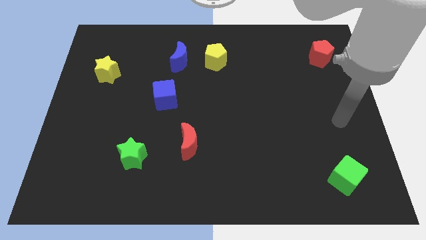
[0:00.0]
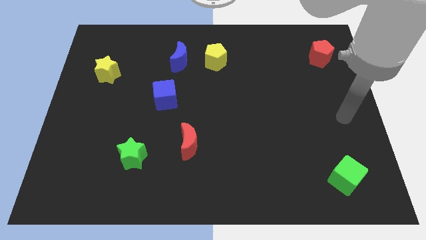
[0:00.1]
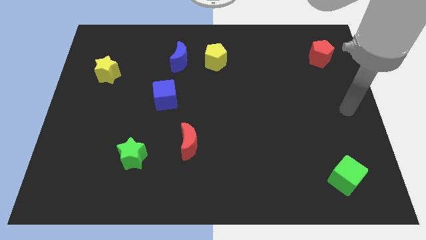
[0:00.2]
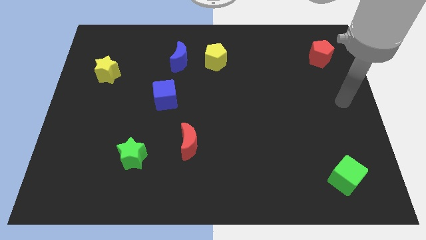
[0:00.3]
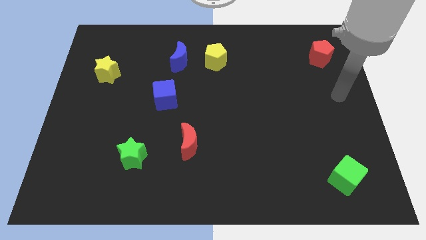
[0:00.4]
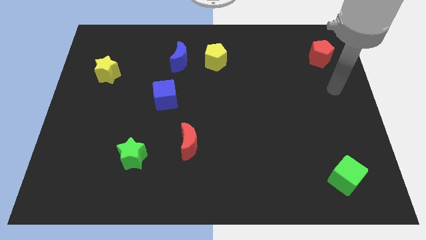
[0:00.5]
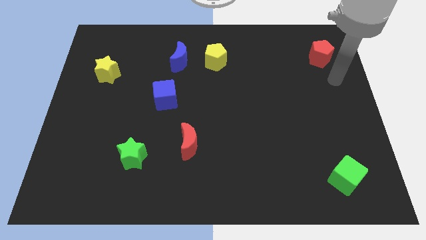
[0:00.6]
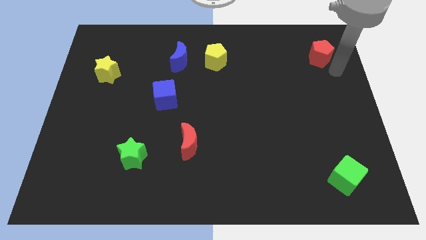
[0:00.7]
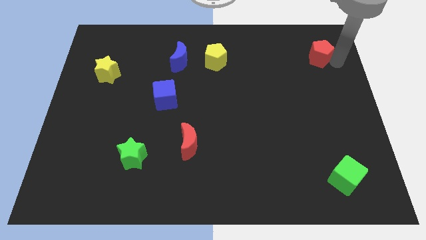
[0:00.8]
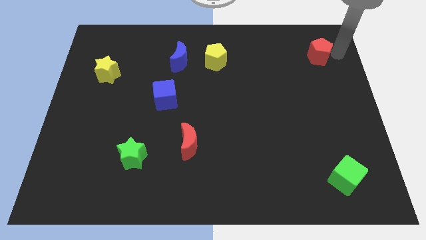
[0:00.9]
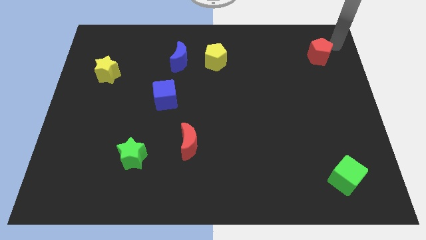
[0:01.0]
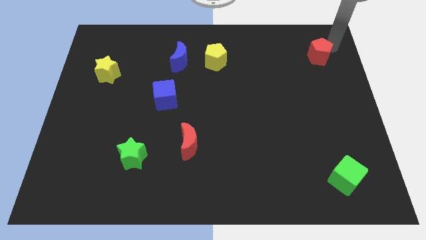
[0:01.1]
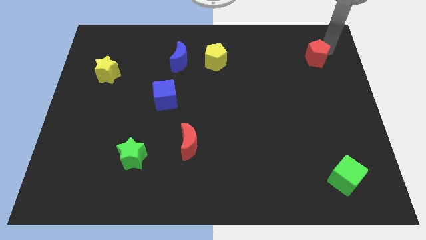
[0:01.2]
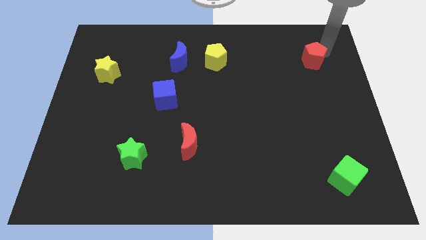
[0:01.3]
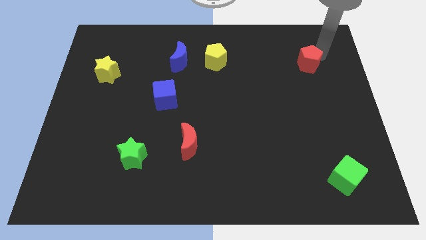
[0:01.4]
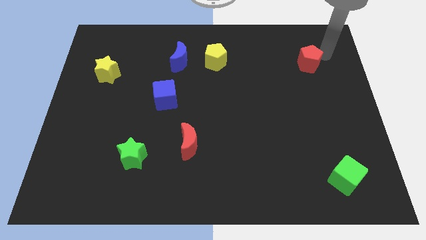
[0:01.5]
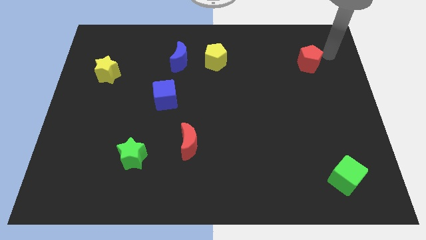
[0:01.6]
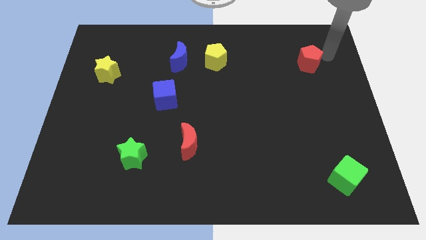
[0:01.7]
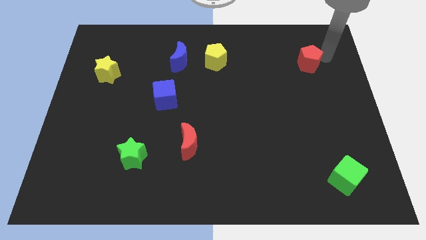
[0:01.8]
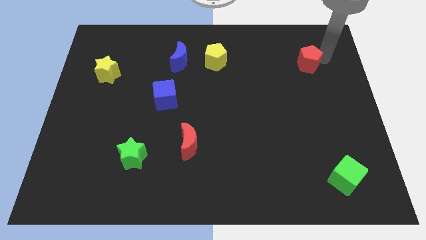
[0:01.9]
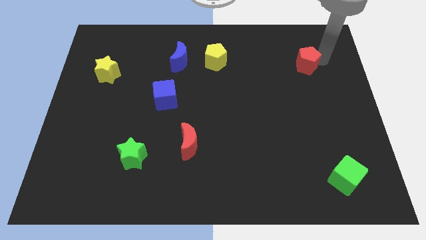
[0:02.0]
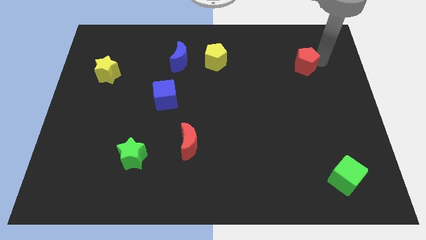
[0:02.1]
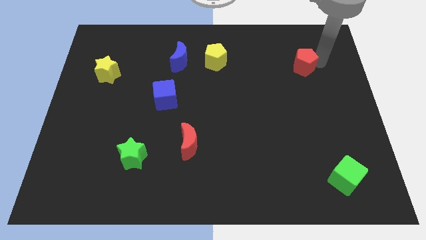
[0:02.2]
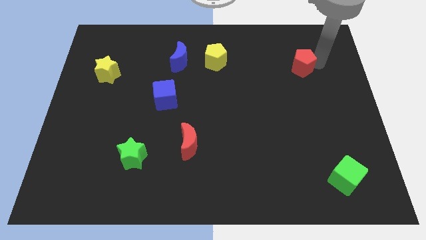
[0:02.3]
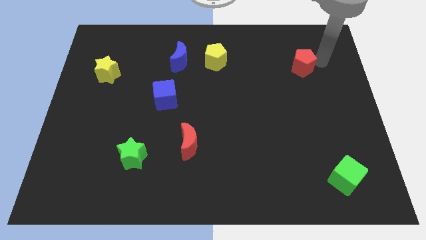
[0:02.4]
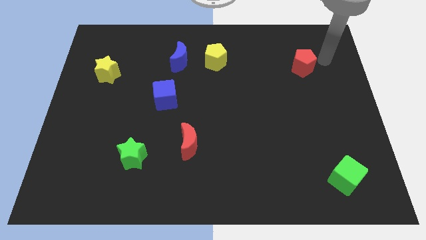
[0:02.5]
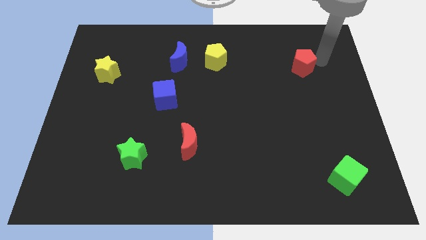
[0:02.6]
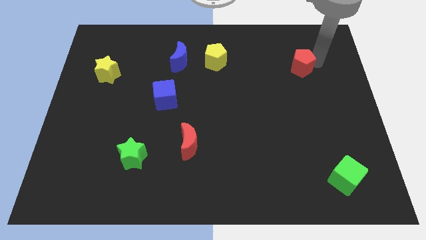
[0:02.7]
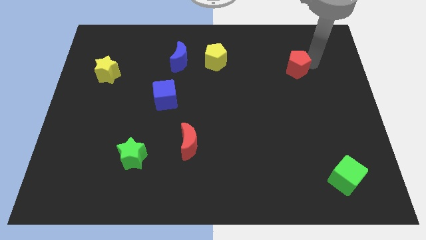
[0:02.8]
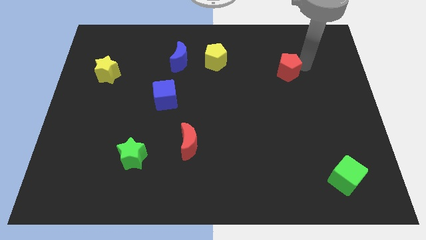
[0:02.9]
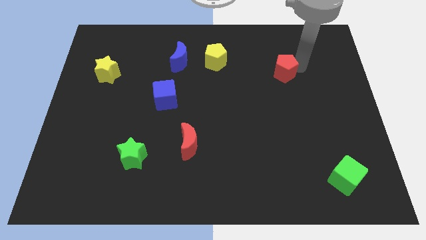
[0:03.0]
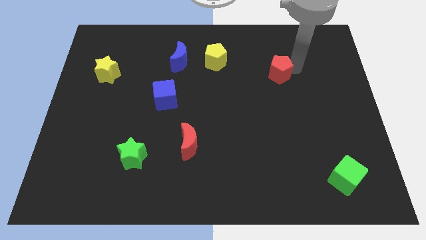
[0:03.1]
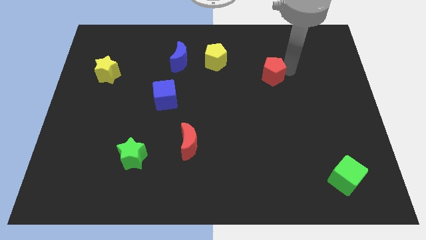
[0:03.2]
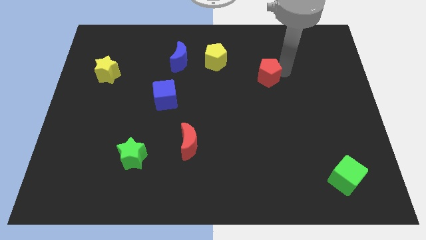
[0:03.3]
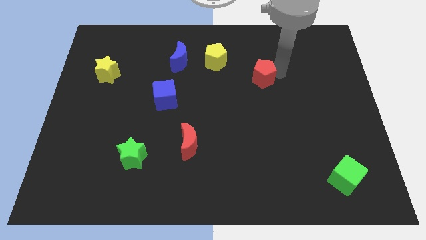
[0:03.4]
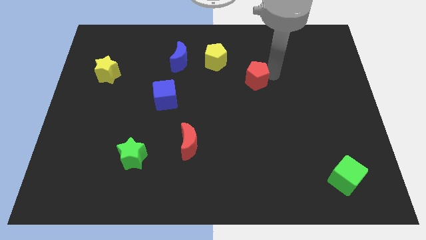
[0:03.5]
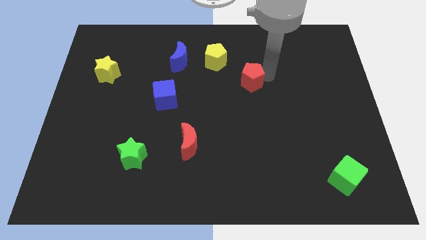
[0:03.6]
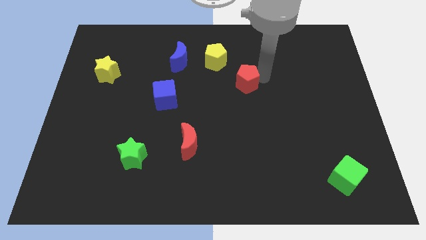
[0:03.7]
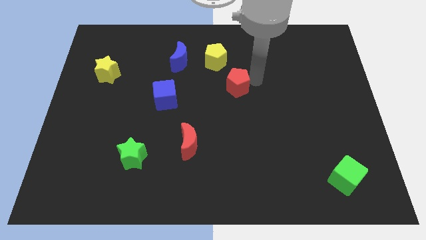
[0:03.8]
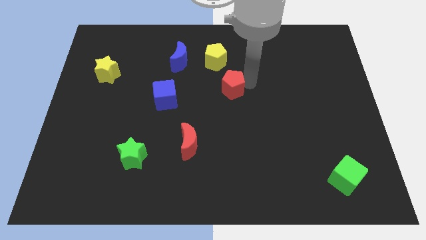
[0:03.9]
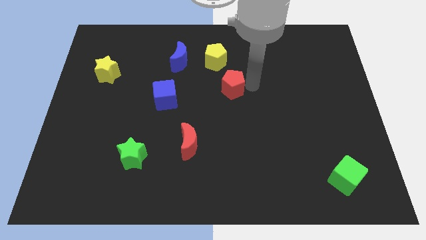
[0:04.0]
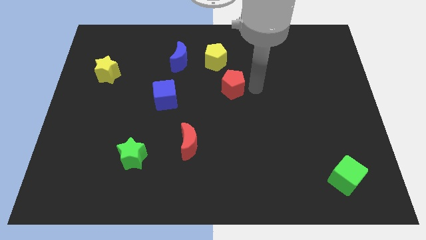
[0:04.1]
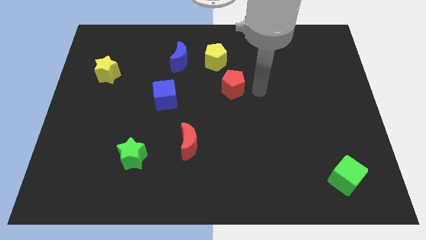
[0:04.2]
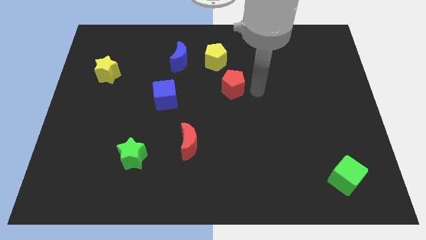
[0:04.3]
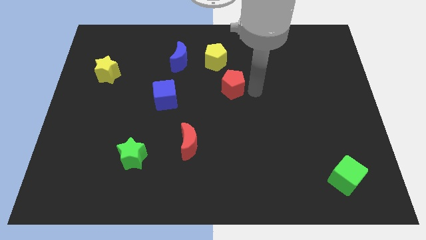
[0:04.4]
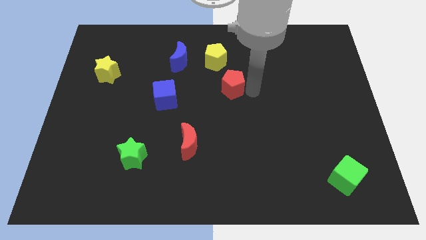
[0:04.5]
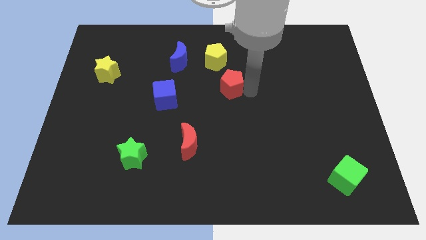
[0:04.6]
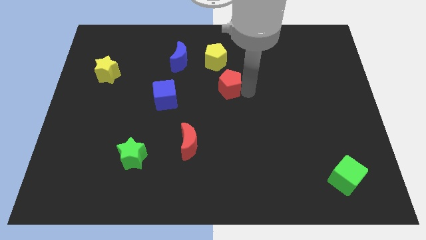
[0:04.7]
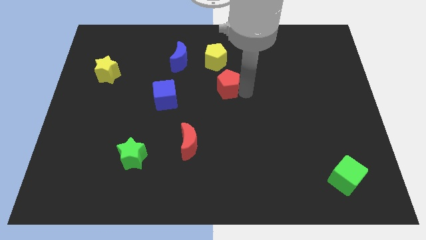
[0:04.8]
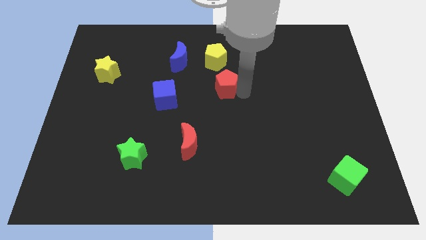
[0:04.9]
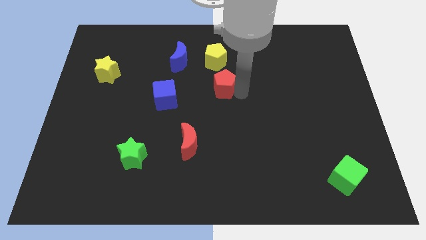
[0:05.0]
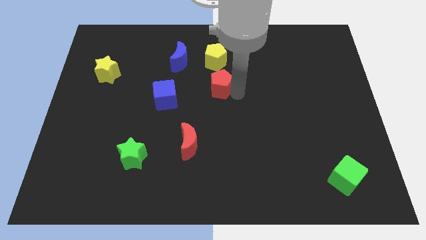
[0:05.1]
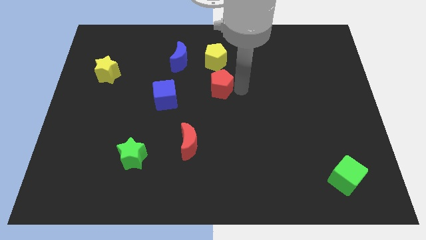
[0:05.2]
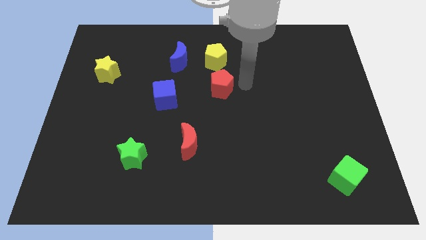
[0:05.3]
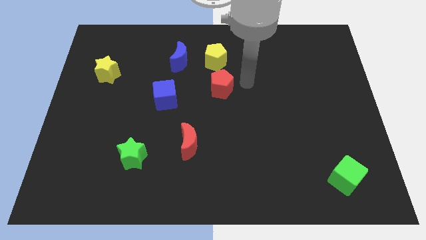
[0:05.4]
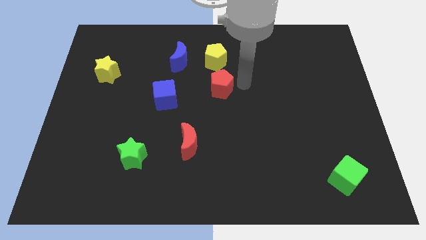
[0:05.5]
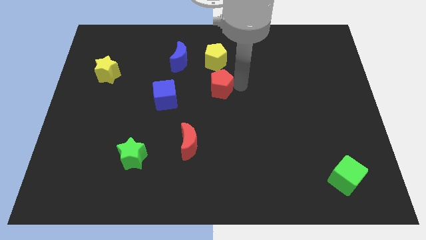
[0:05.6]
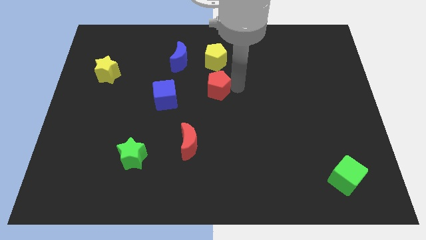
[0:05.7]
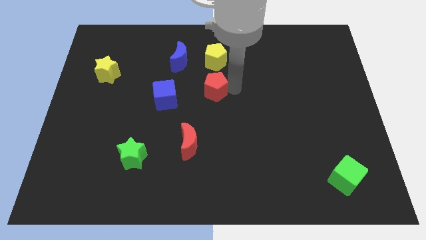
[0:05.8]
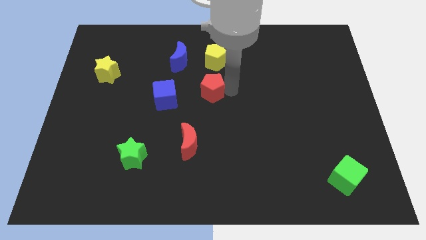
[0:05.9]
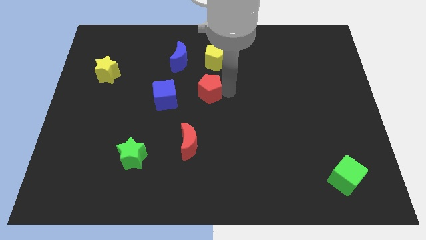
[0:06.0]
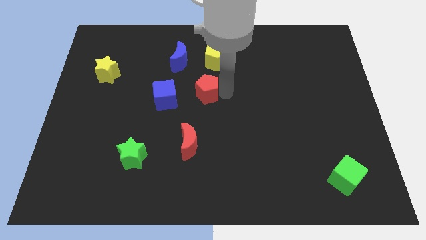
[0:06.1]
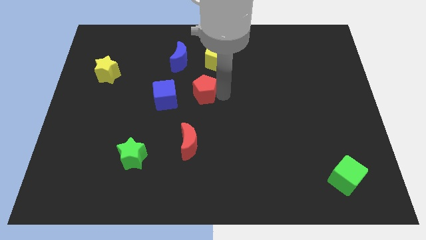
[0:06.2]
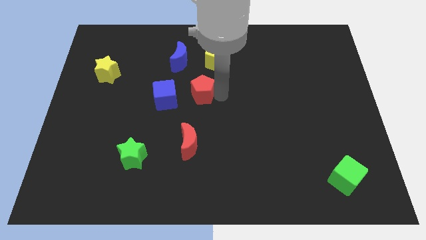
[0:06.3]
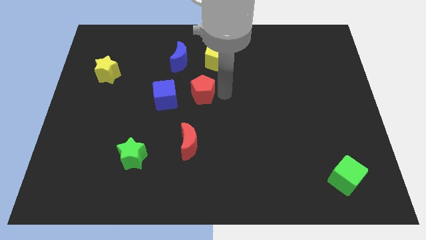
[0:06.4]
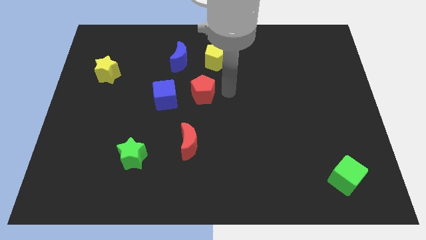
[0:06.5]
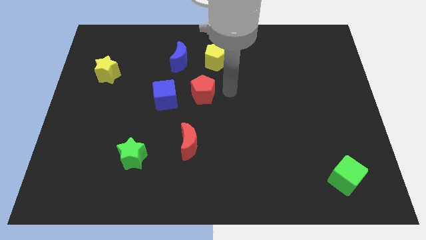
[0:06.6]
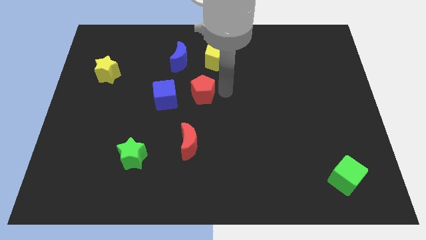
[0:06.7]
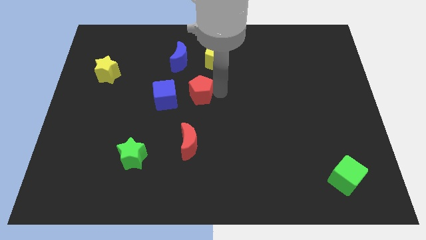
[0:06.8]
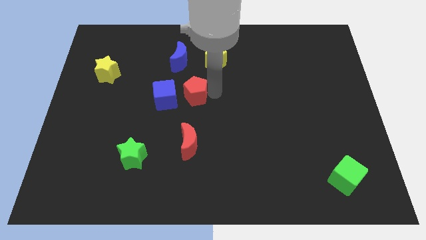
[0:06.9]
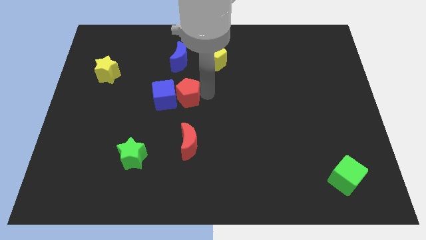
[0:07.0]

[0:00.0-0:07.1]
slide the red pentagon to the blue cube

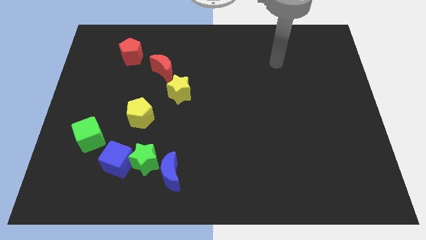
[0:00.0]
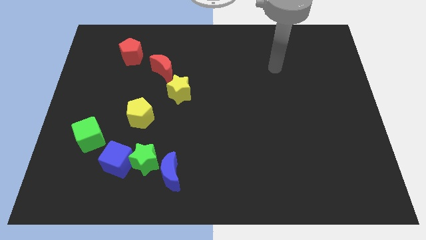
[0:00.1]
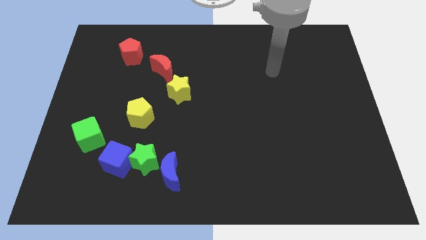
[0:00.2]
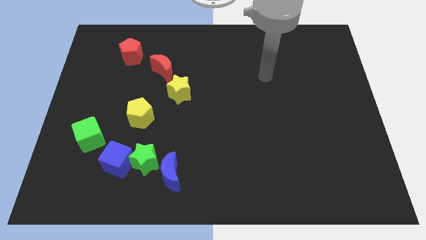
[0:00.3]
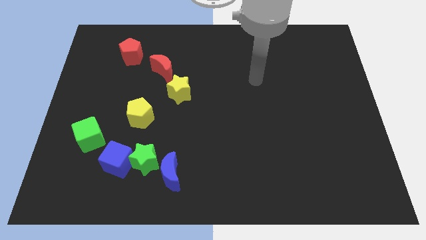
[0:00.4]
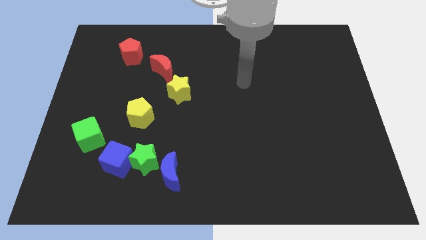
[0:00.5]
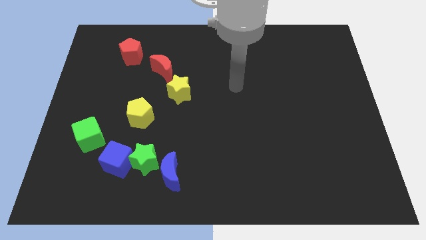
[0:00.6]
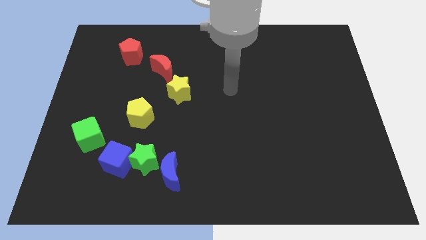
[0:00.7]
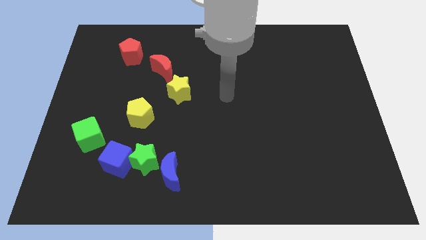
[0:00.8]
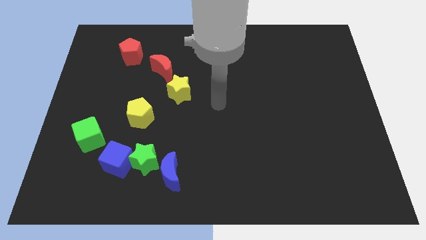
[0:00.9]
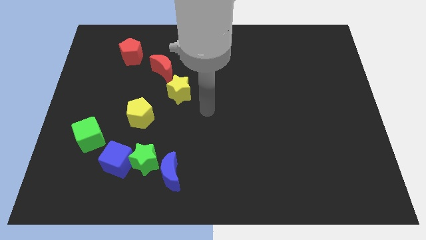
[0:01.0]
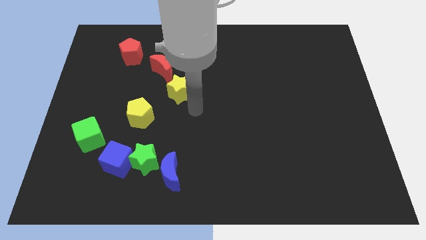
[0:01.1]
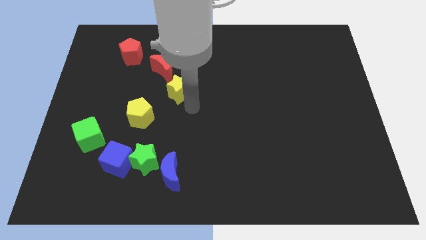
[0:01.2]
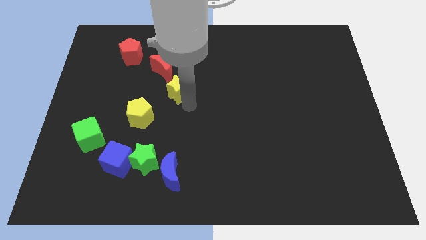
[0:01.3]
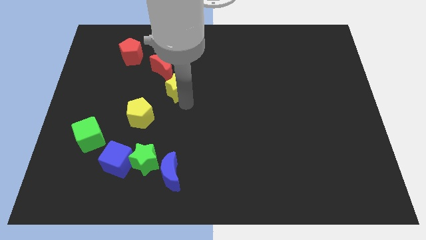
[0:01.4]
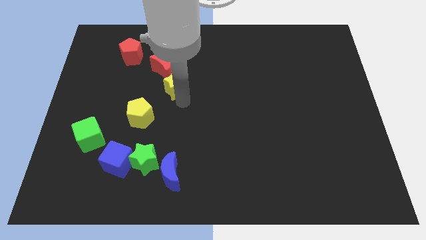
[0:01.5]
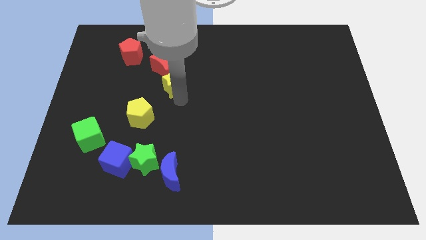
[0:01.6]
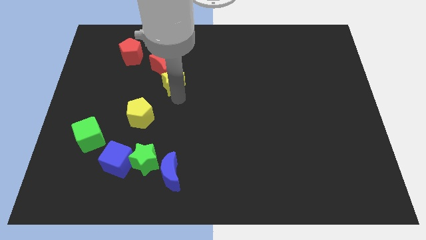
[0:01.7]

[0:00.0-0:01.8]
slide the yellow star towards the red moon
